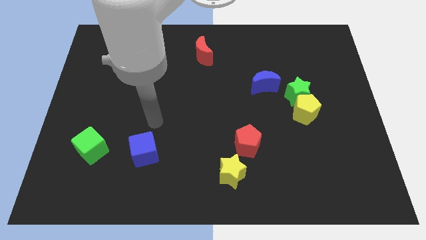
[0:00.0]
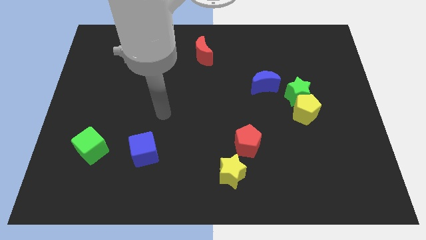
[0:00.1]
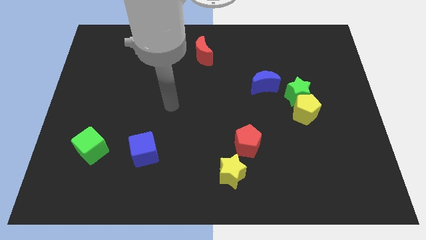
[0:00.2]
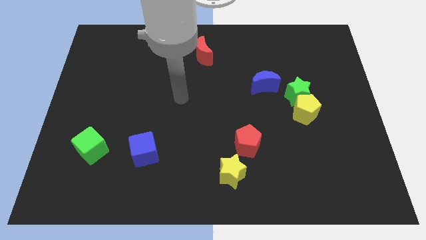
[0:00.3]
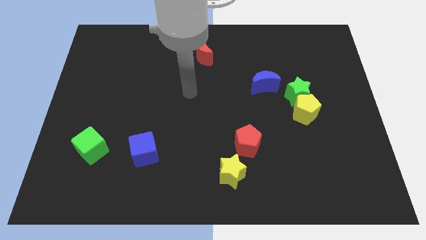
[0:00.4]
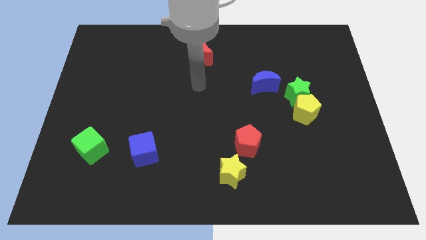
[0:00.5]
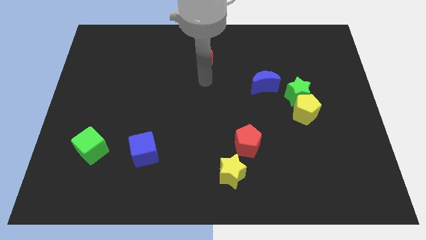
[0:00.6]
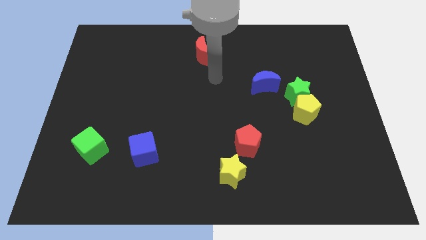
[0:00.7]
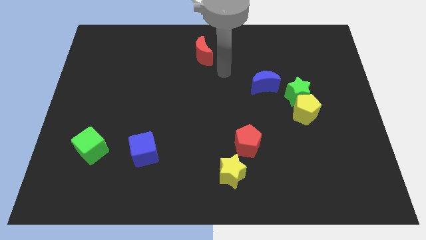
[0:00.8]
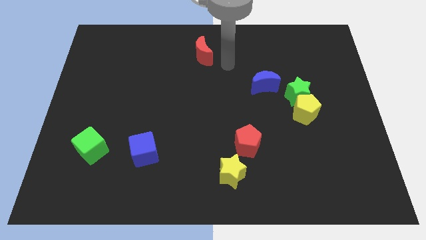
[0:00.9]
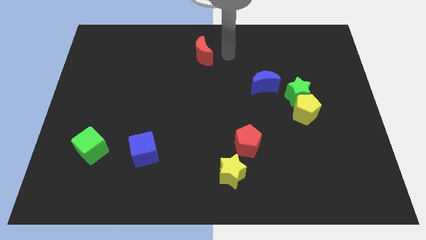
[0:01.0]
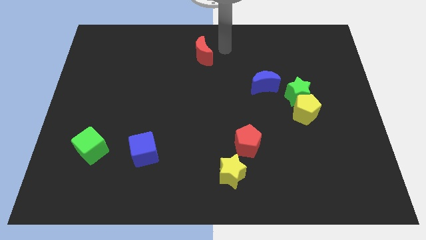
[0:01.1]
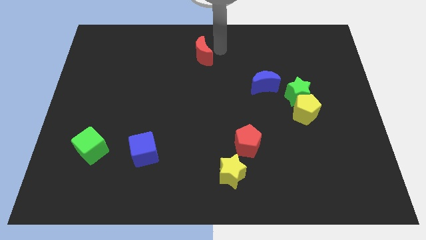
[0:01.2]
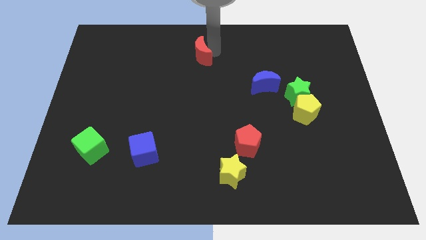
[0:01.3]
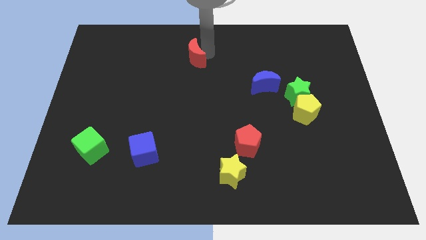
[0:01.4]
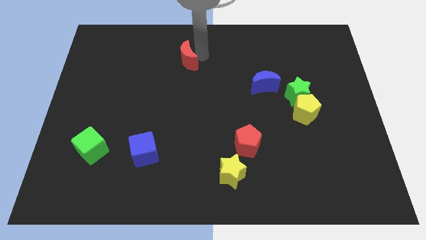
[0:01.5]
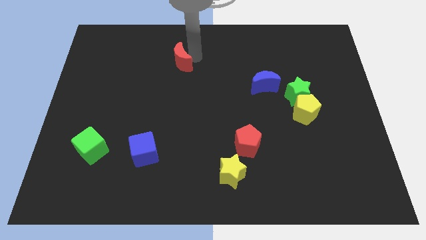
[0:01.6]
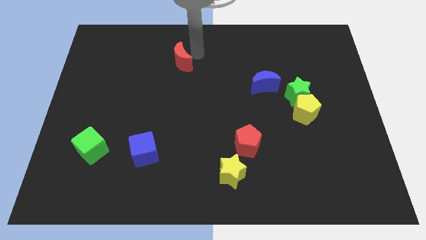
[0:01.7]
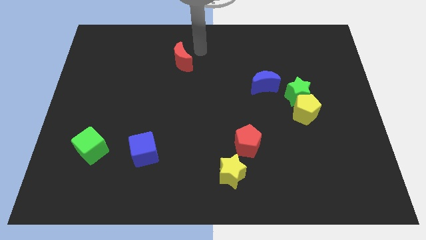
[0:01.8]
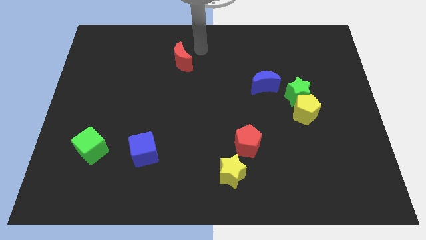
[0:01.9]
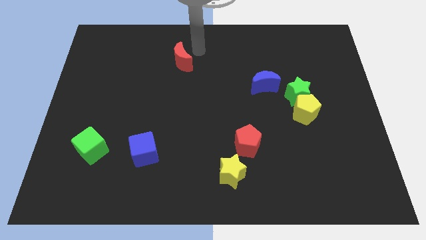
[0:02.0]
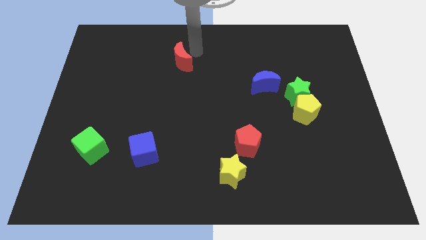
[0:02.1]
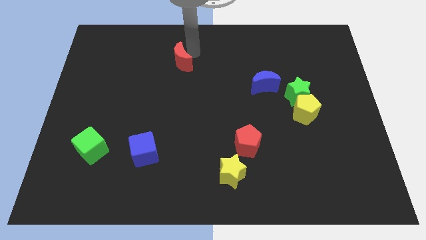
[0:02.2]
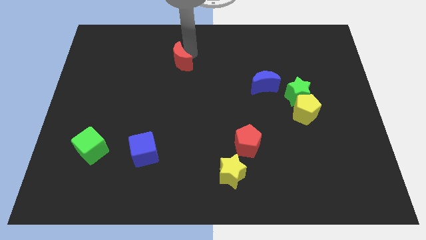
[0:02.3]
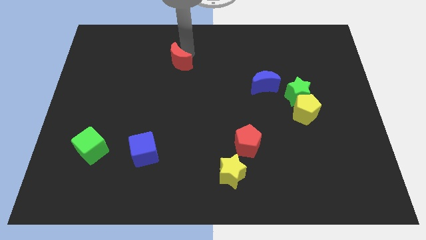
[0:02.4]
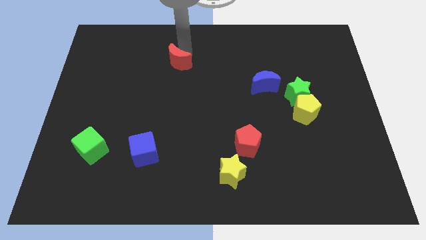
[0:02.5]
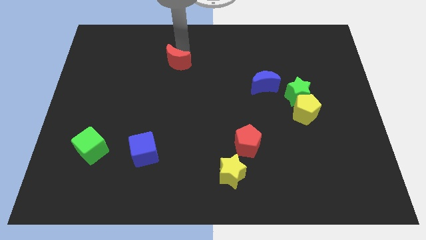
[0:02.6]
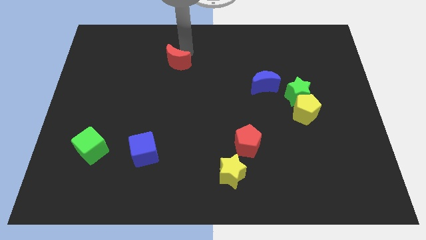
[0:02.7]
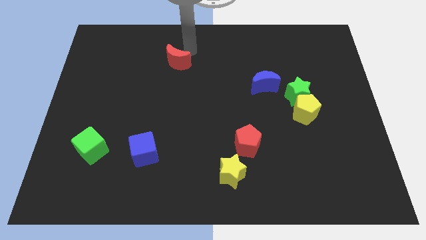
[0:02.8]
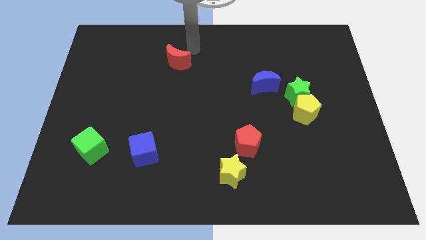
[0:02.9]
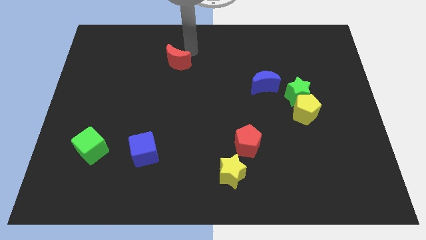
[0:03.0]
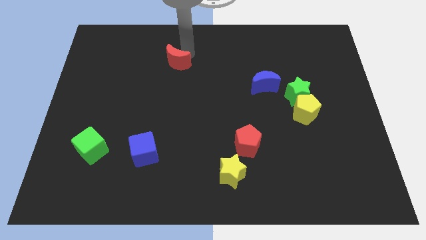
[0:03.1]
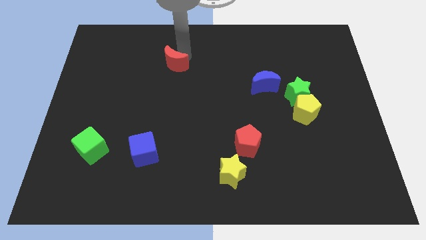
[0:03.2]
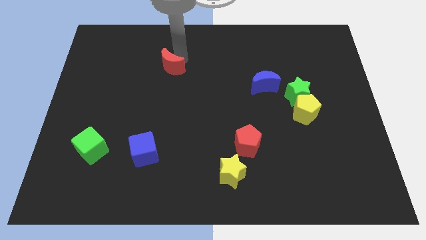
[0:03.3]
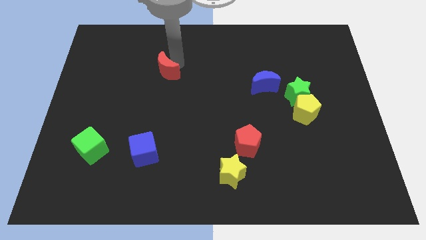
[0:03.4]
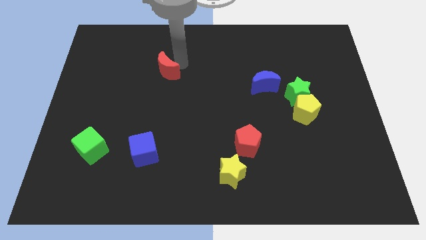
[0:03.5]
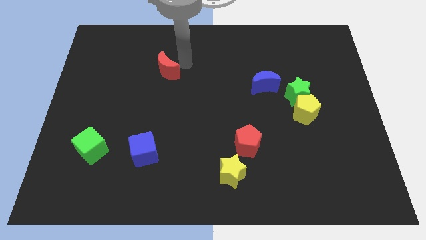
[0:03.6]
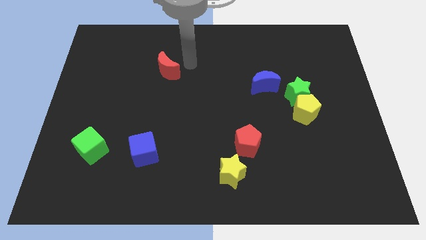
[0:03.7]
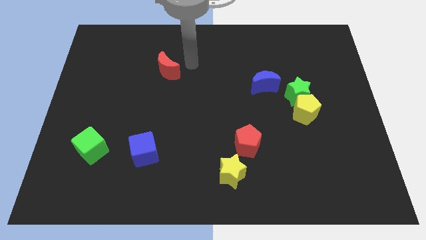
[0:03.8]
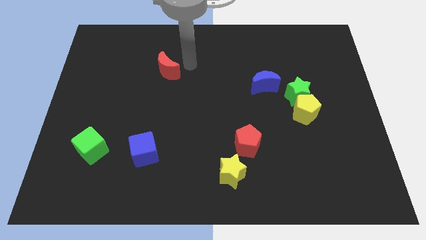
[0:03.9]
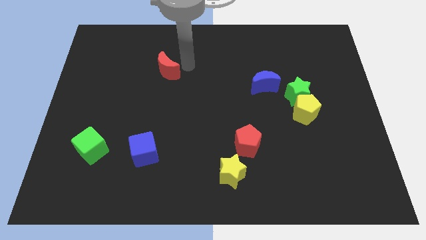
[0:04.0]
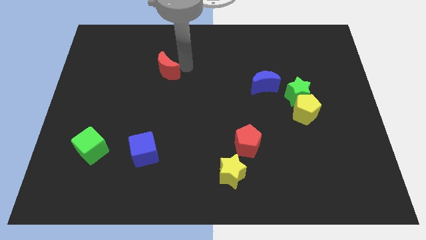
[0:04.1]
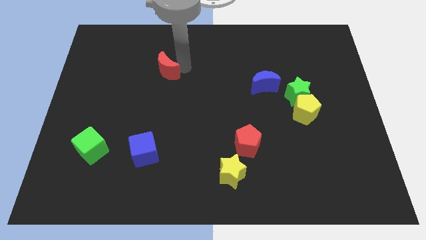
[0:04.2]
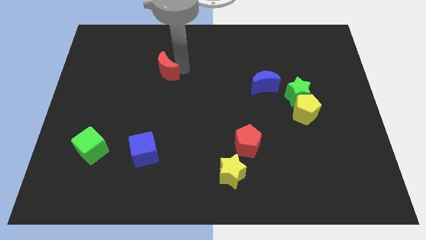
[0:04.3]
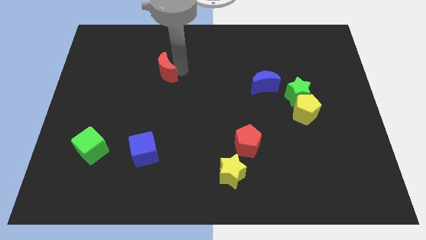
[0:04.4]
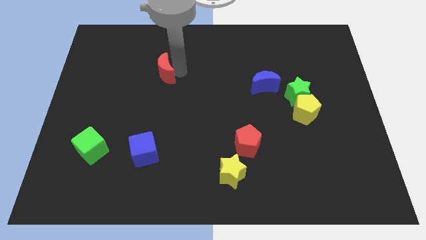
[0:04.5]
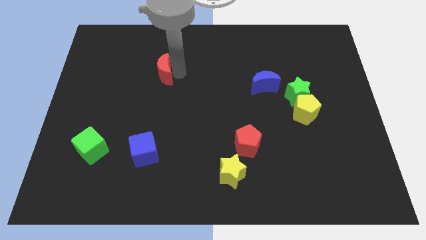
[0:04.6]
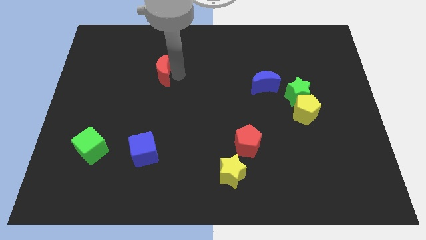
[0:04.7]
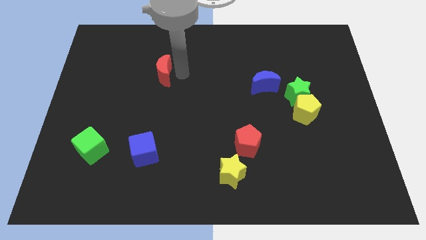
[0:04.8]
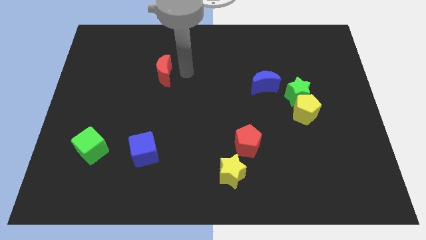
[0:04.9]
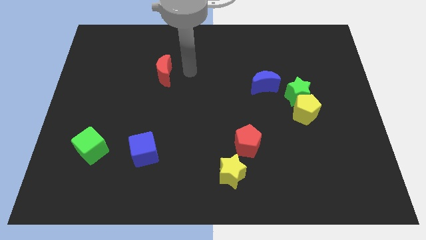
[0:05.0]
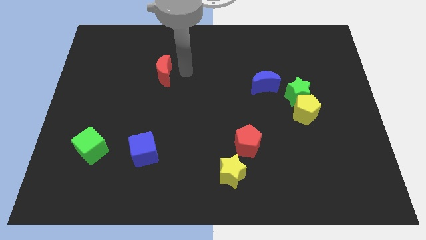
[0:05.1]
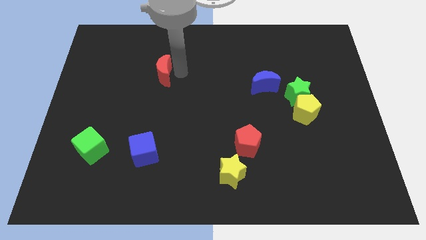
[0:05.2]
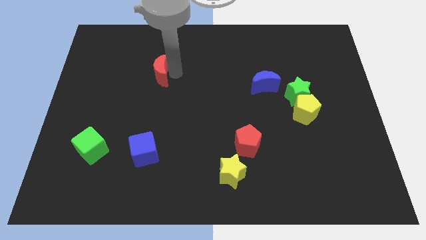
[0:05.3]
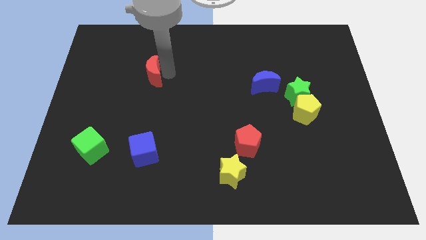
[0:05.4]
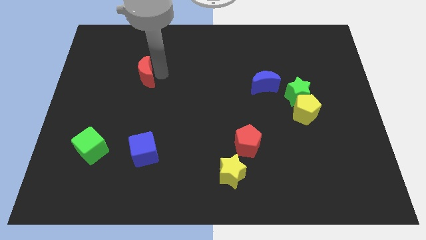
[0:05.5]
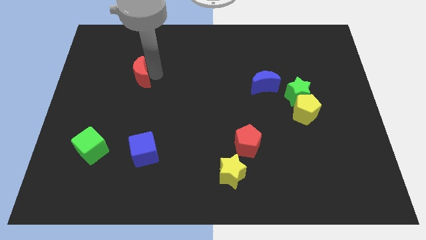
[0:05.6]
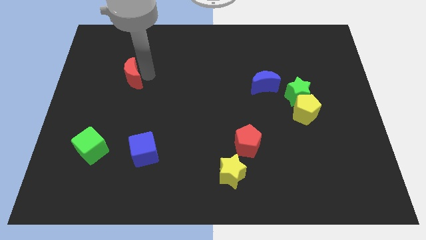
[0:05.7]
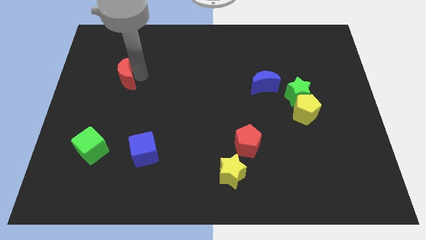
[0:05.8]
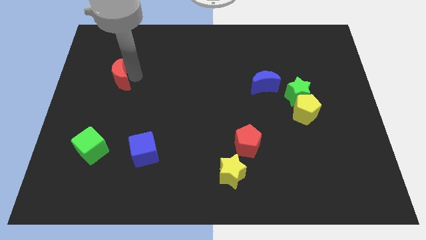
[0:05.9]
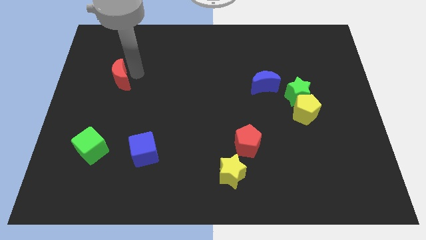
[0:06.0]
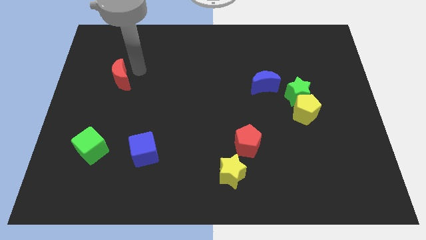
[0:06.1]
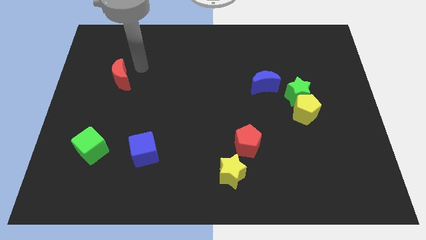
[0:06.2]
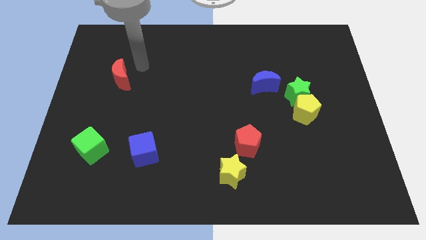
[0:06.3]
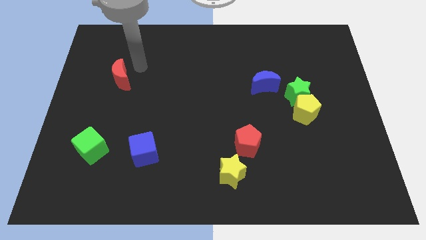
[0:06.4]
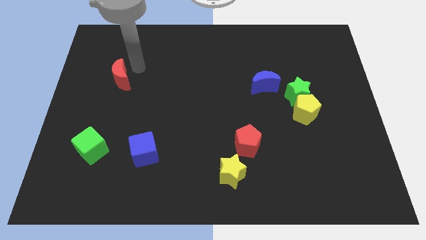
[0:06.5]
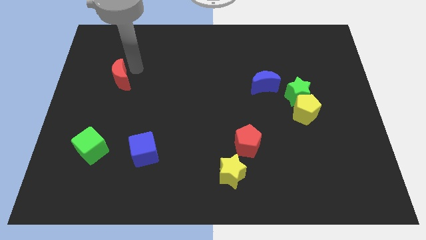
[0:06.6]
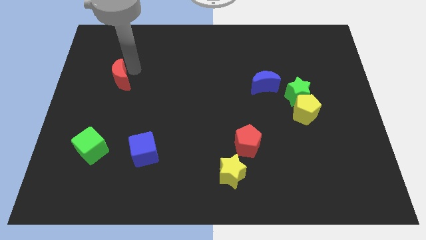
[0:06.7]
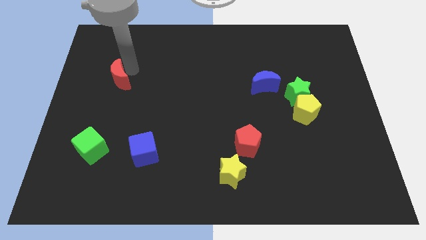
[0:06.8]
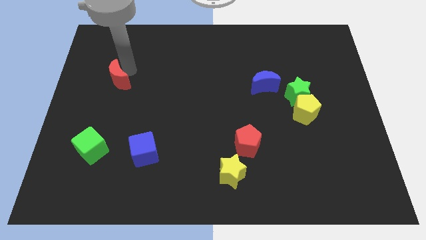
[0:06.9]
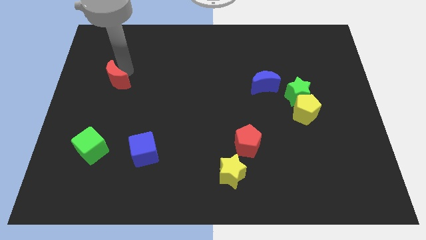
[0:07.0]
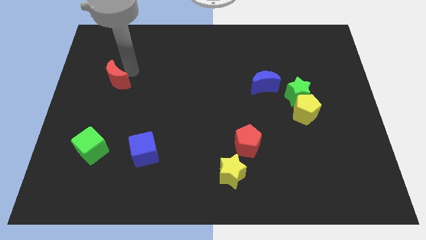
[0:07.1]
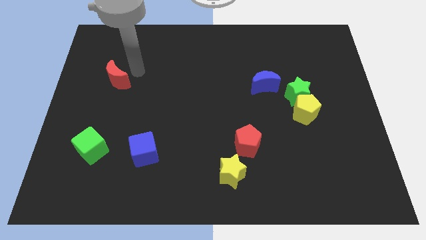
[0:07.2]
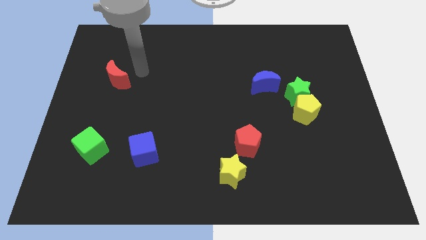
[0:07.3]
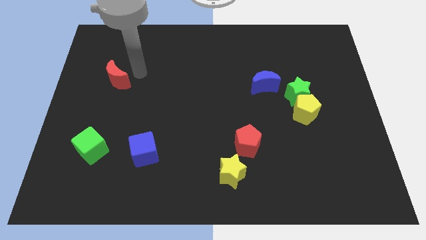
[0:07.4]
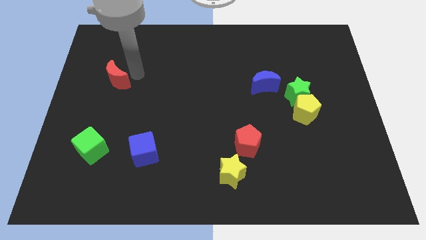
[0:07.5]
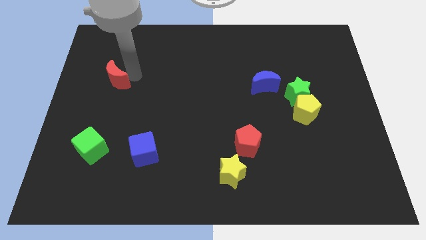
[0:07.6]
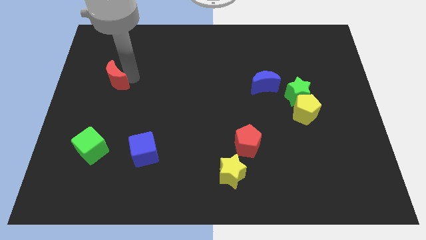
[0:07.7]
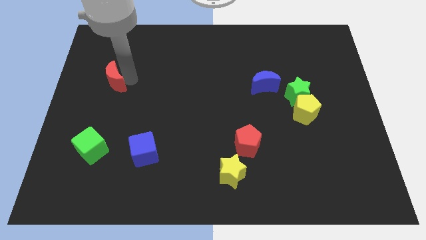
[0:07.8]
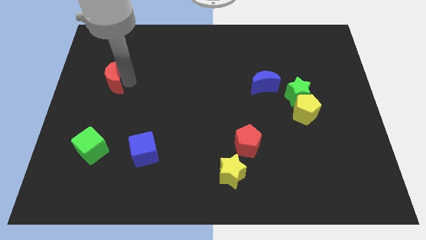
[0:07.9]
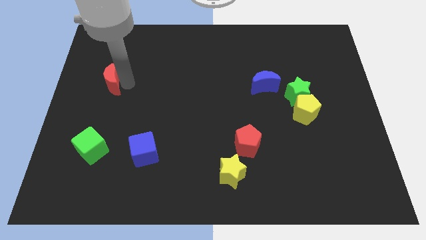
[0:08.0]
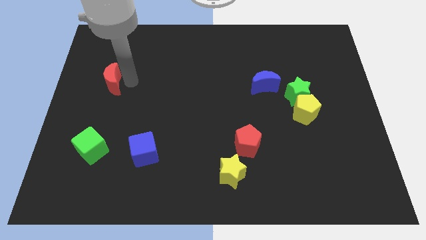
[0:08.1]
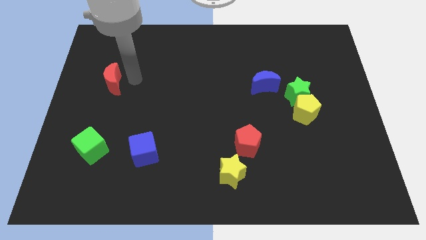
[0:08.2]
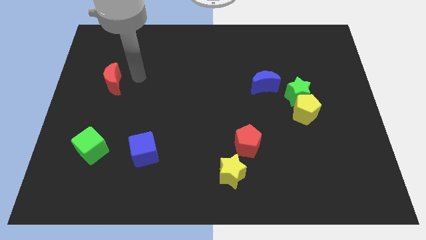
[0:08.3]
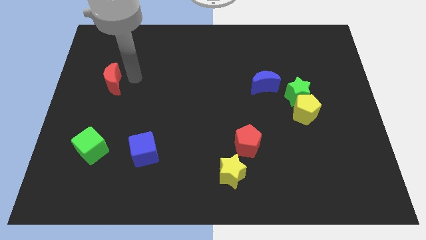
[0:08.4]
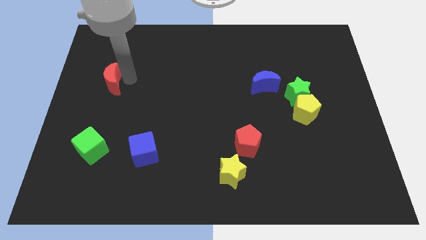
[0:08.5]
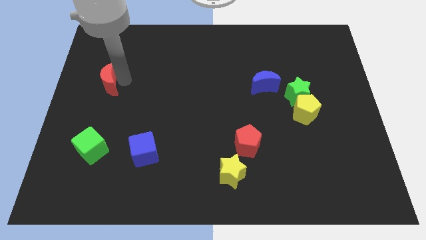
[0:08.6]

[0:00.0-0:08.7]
move the red moon to the left side
